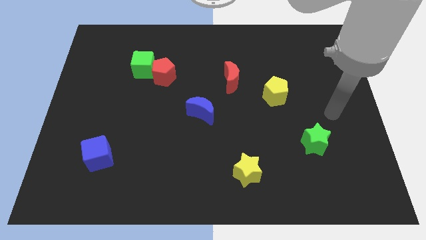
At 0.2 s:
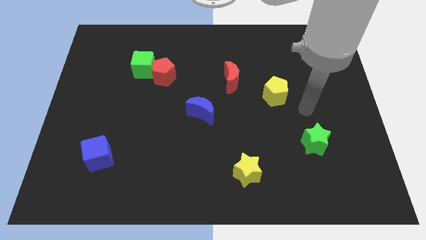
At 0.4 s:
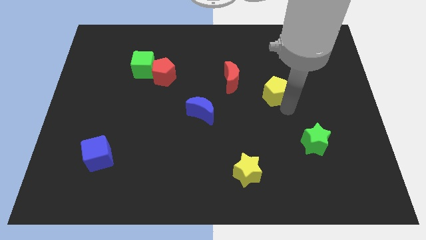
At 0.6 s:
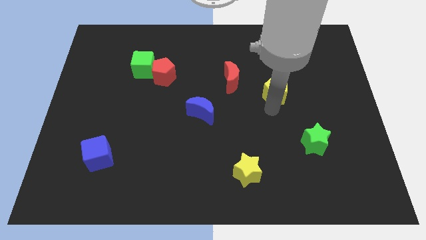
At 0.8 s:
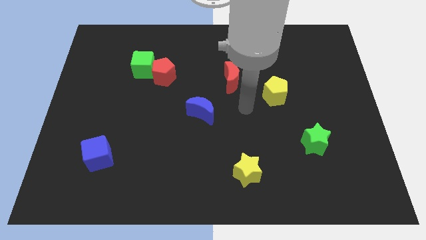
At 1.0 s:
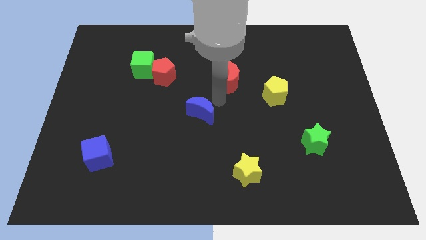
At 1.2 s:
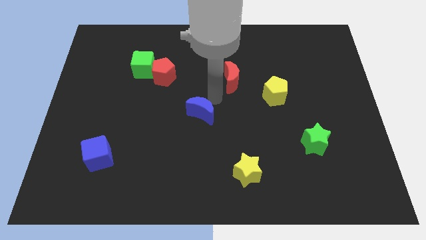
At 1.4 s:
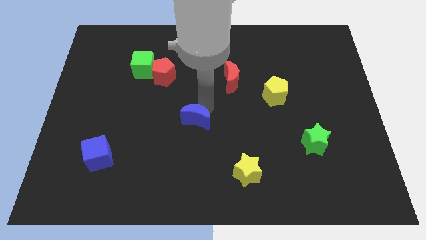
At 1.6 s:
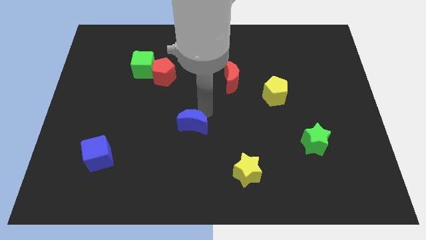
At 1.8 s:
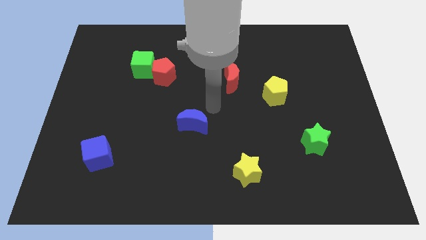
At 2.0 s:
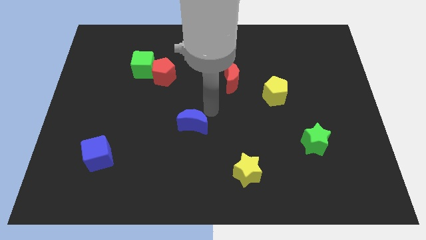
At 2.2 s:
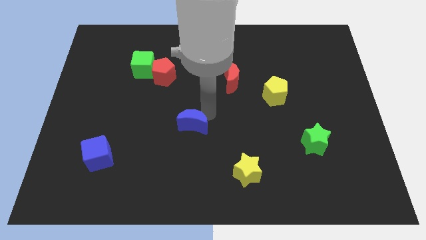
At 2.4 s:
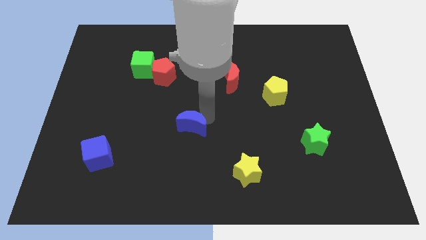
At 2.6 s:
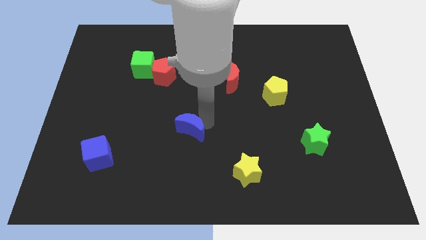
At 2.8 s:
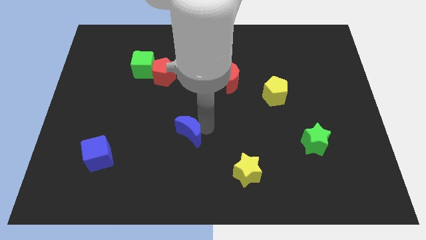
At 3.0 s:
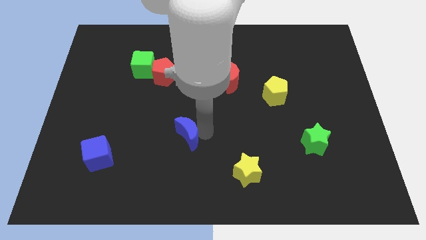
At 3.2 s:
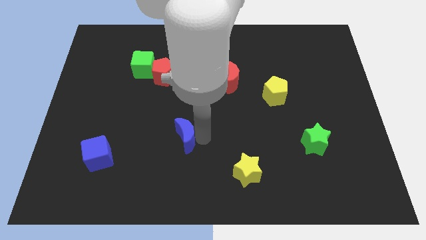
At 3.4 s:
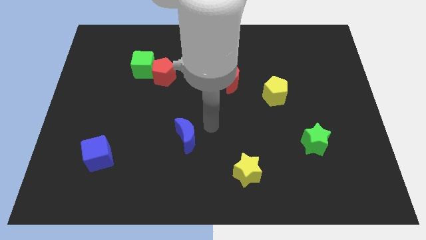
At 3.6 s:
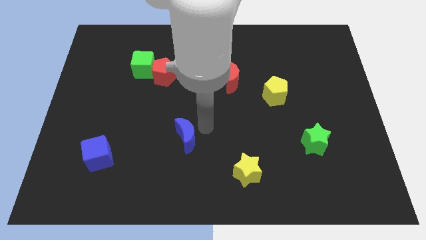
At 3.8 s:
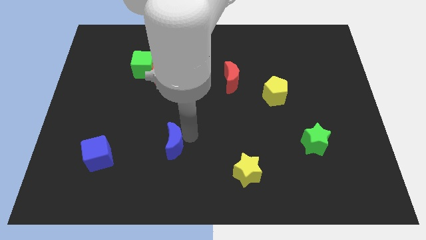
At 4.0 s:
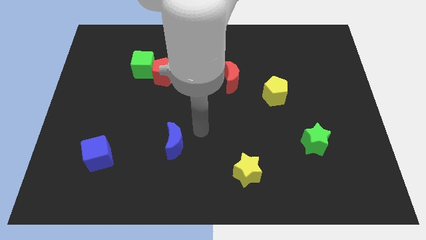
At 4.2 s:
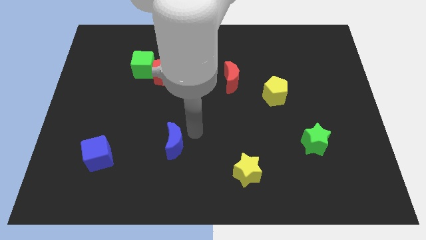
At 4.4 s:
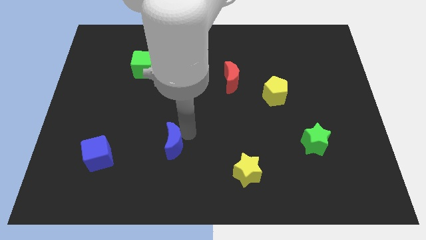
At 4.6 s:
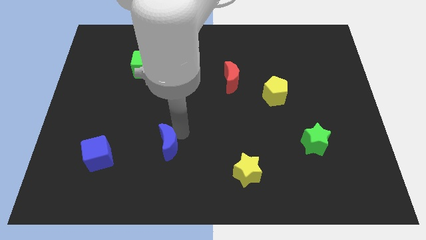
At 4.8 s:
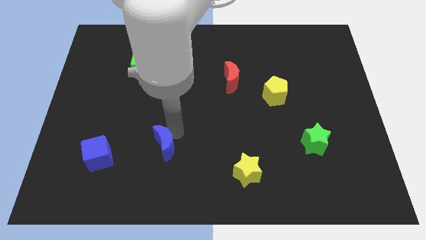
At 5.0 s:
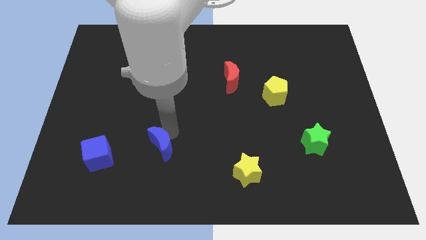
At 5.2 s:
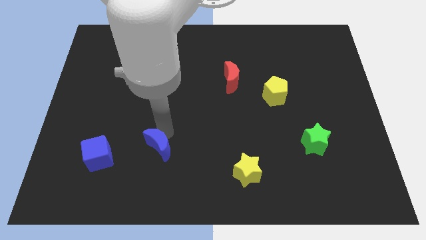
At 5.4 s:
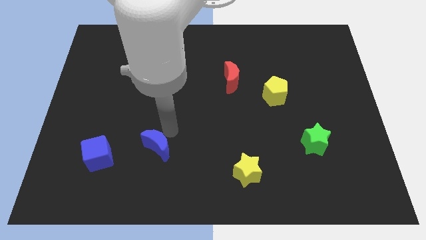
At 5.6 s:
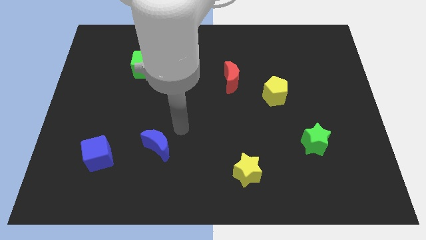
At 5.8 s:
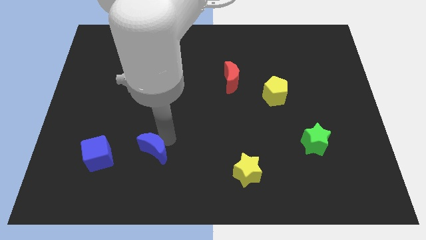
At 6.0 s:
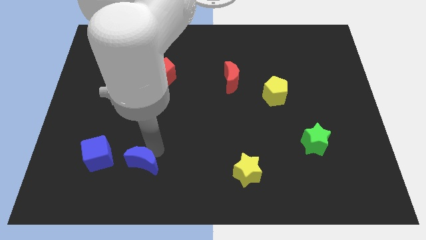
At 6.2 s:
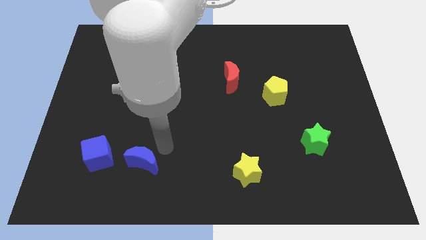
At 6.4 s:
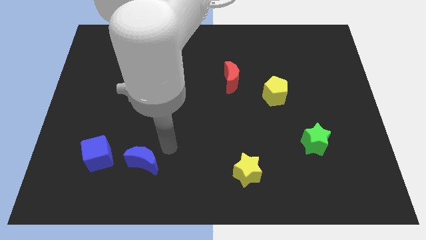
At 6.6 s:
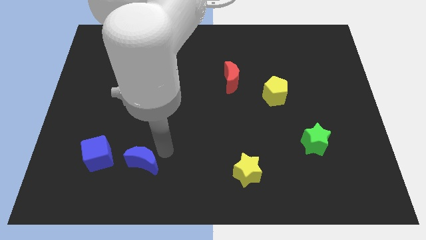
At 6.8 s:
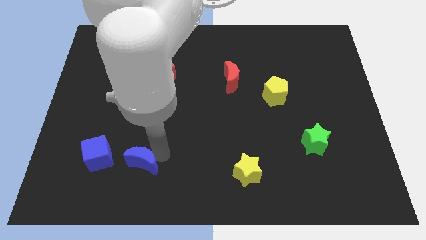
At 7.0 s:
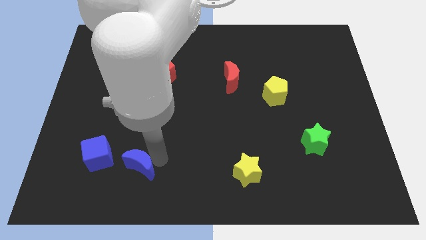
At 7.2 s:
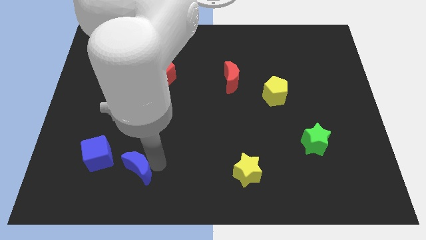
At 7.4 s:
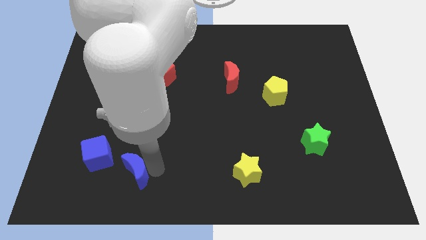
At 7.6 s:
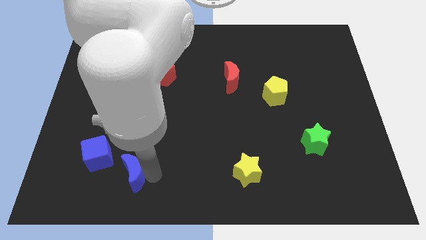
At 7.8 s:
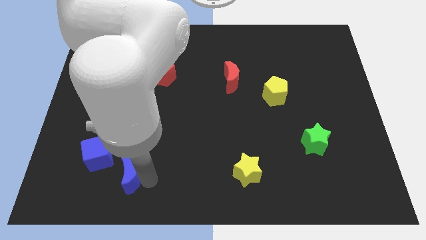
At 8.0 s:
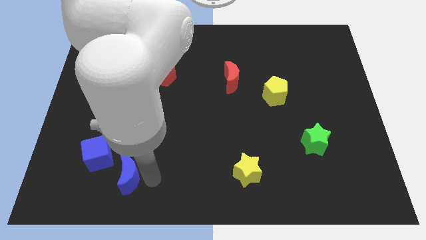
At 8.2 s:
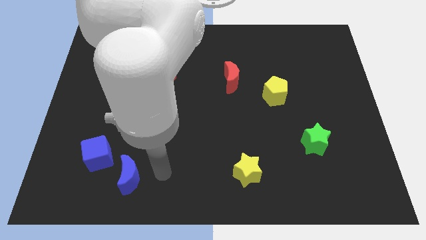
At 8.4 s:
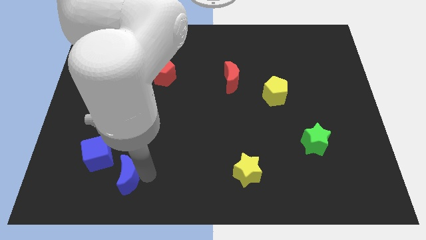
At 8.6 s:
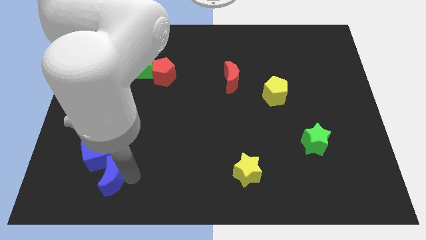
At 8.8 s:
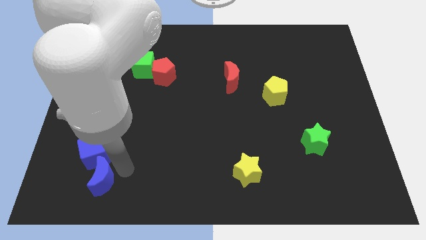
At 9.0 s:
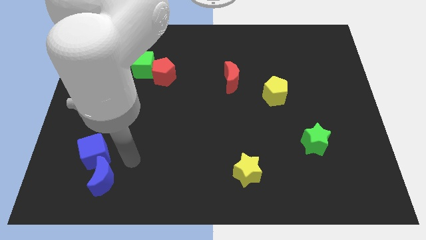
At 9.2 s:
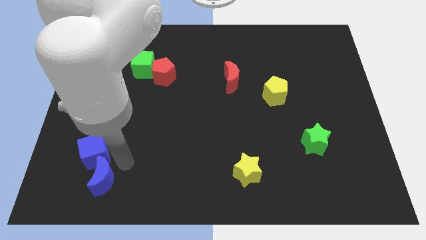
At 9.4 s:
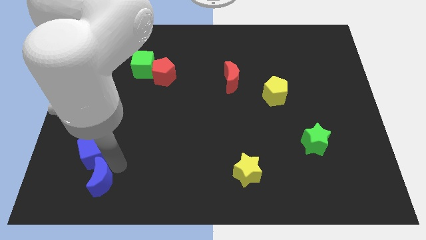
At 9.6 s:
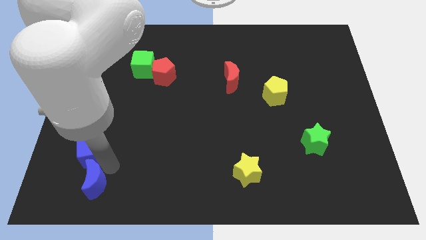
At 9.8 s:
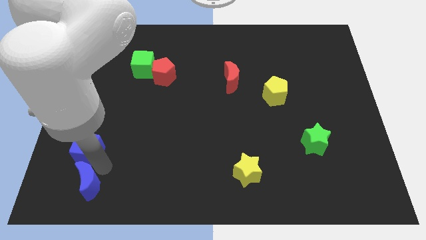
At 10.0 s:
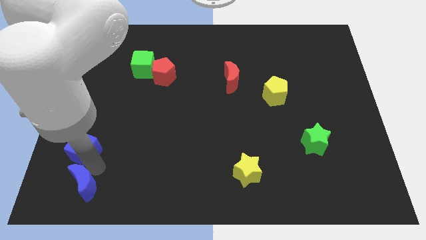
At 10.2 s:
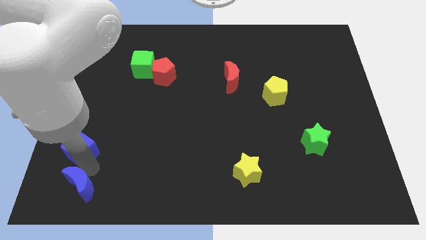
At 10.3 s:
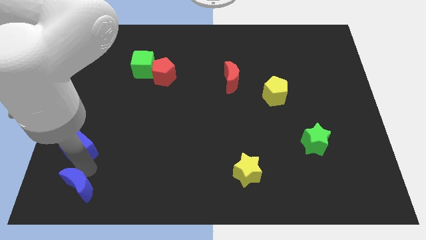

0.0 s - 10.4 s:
slide the blue moon to the lower left corner

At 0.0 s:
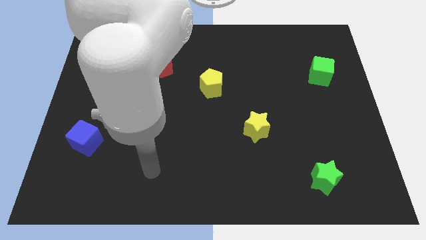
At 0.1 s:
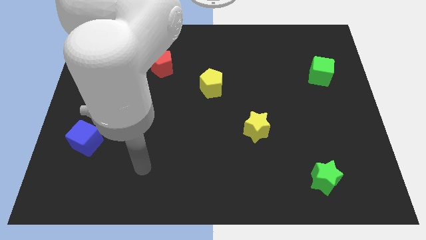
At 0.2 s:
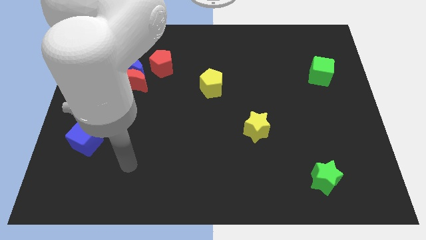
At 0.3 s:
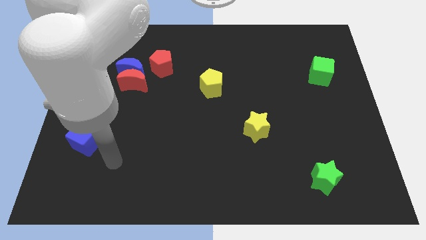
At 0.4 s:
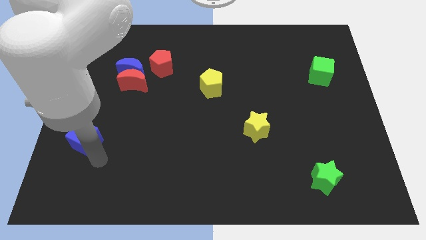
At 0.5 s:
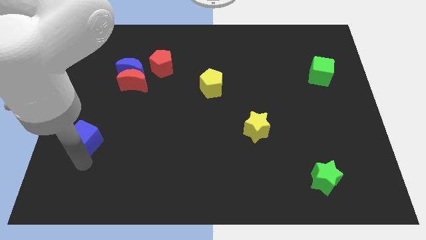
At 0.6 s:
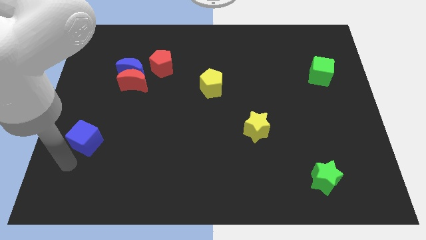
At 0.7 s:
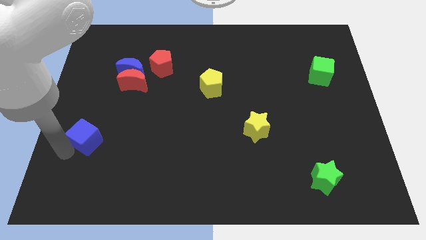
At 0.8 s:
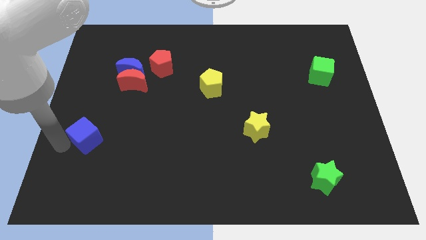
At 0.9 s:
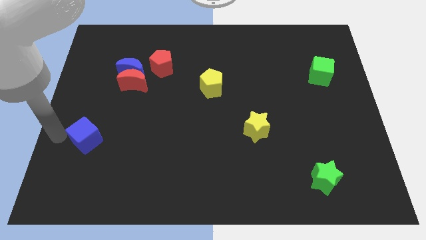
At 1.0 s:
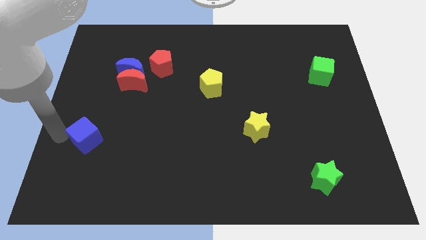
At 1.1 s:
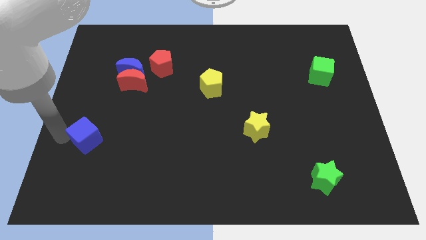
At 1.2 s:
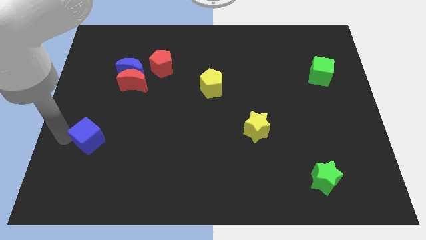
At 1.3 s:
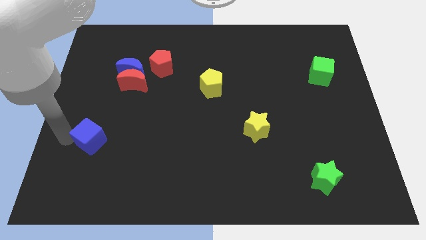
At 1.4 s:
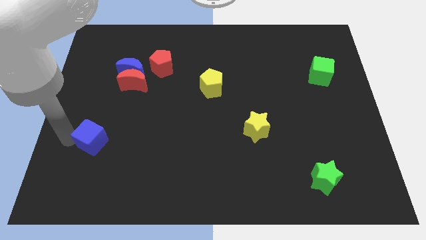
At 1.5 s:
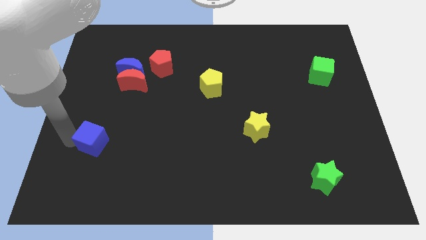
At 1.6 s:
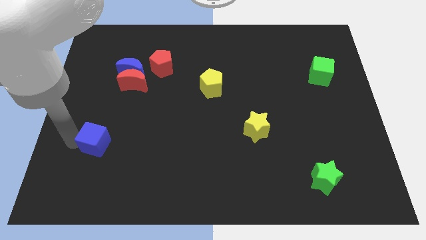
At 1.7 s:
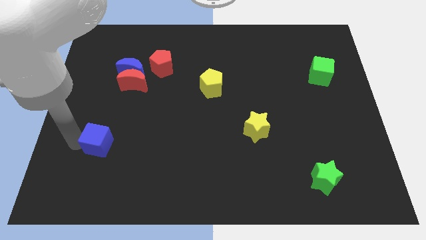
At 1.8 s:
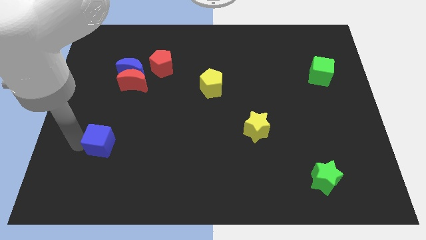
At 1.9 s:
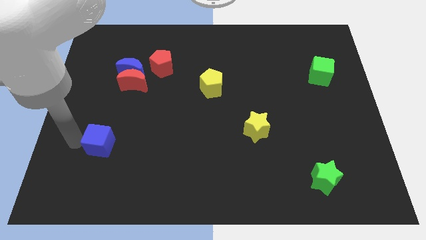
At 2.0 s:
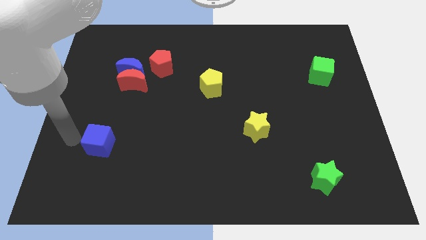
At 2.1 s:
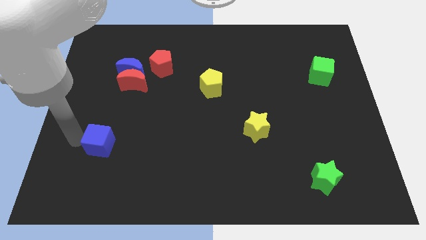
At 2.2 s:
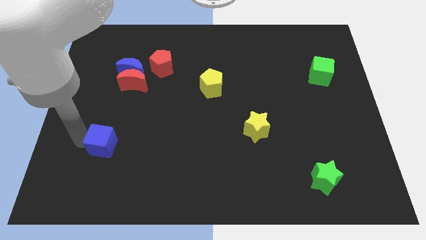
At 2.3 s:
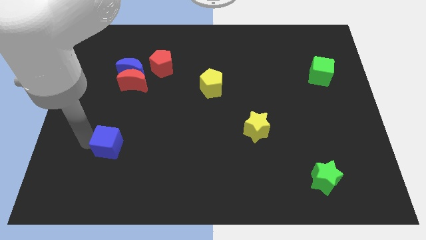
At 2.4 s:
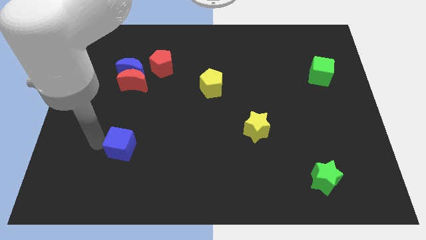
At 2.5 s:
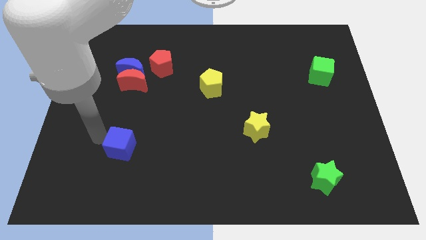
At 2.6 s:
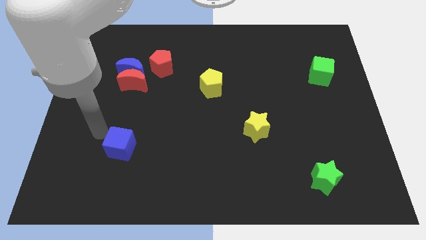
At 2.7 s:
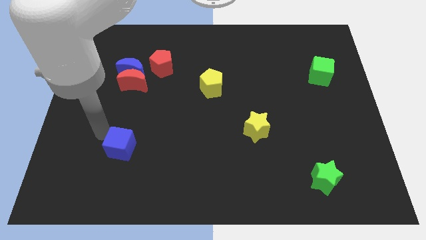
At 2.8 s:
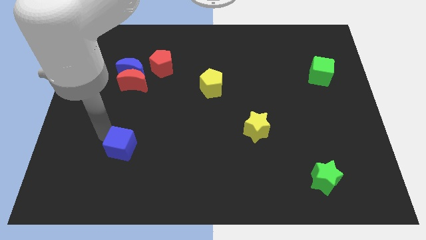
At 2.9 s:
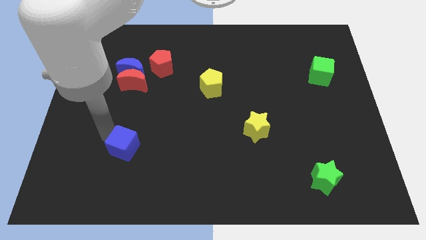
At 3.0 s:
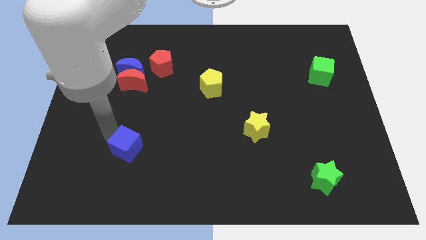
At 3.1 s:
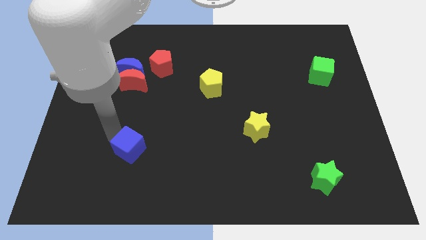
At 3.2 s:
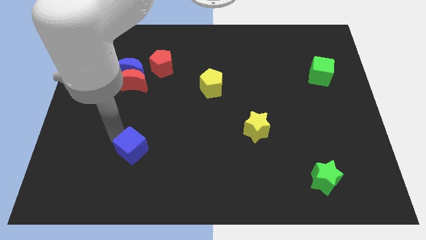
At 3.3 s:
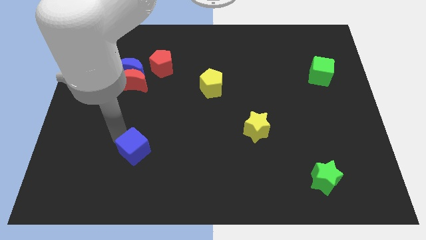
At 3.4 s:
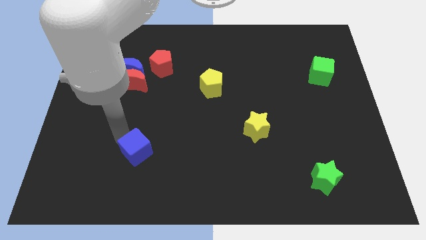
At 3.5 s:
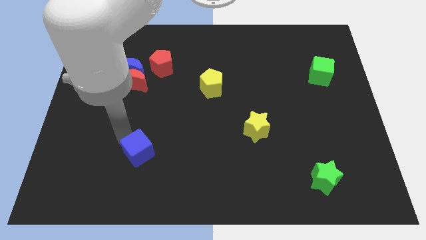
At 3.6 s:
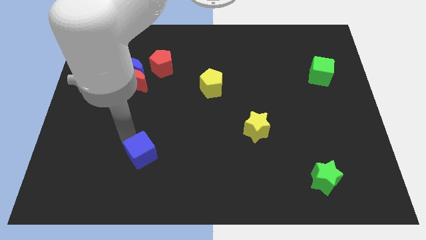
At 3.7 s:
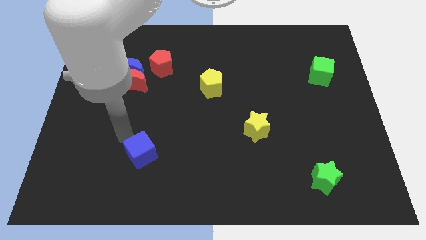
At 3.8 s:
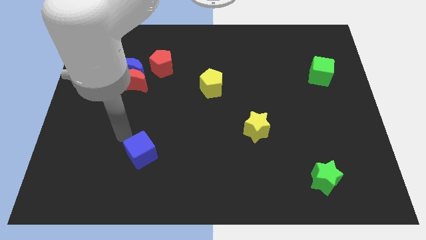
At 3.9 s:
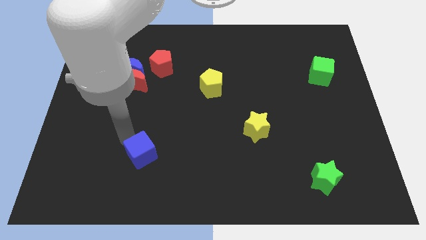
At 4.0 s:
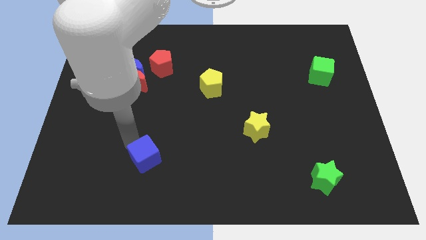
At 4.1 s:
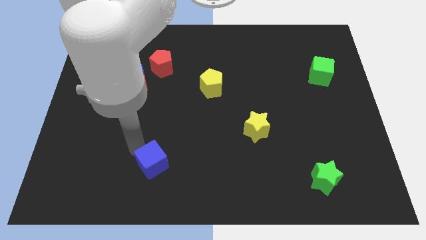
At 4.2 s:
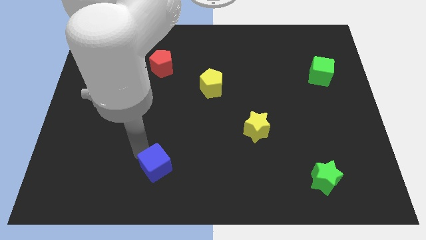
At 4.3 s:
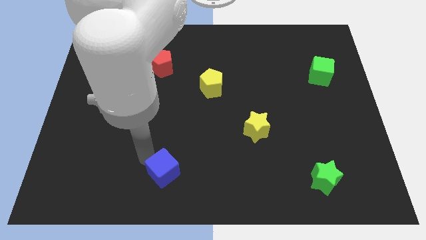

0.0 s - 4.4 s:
push the blue cube to the bottom side
